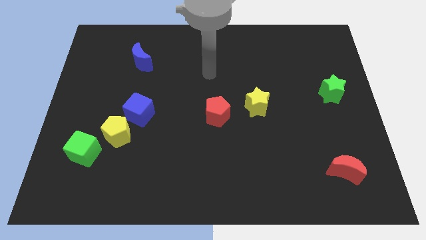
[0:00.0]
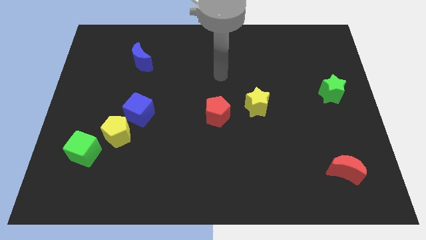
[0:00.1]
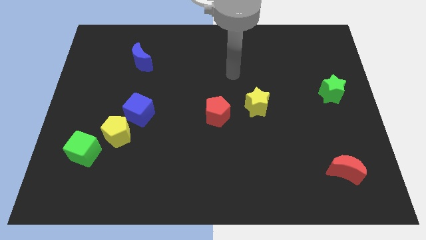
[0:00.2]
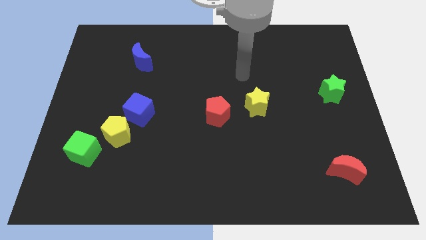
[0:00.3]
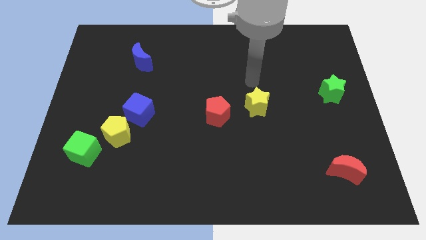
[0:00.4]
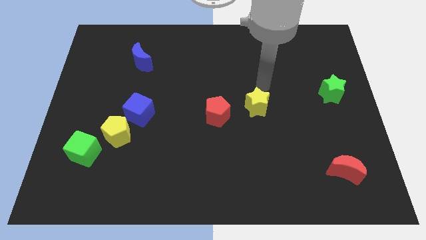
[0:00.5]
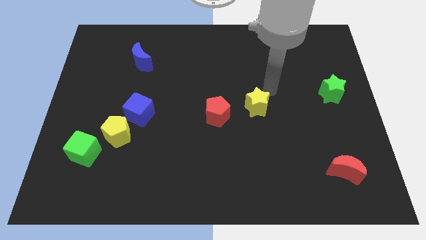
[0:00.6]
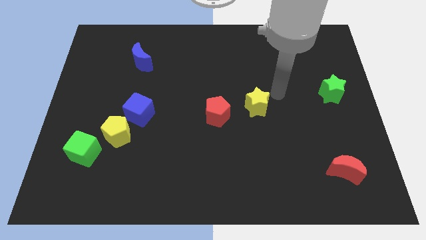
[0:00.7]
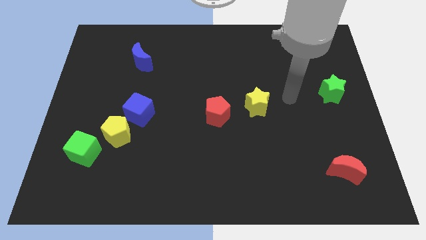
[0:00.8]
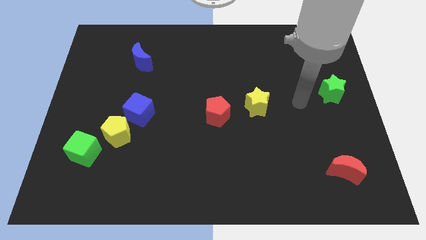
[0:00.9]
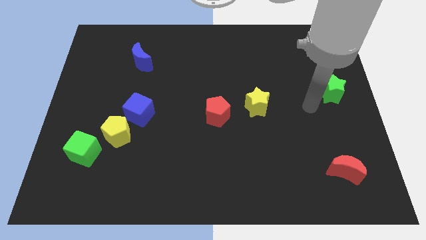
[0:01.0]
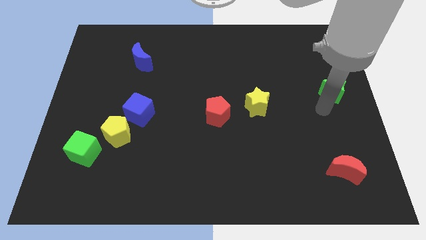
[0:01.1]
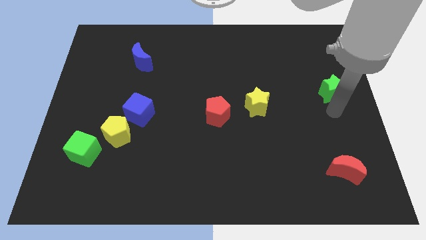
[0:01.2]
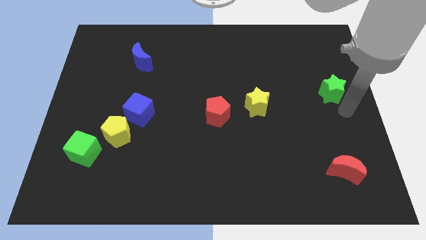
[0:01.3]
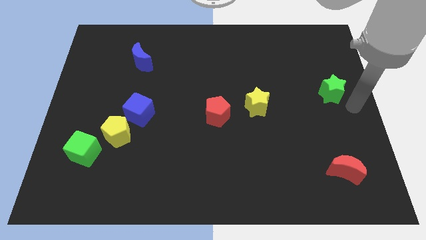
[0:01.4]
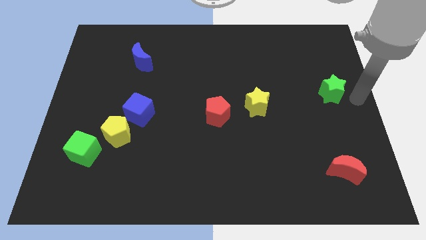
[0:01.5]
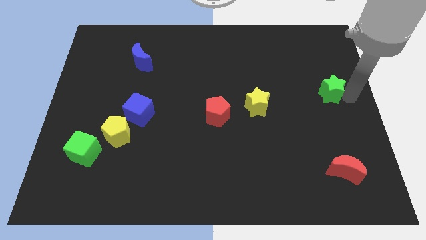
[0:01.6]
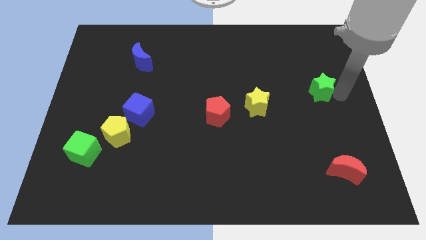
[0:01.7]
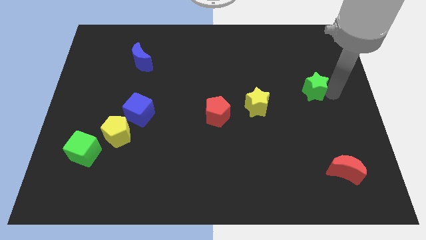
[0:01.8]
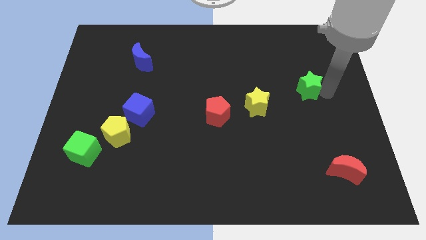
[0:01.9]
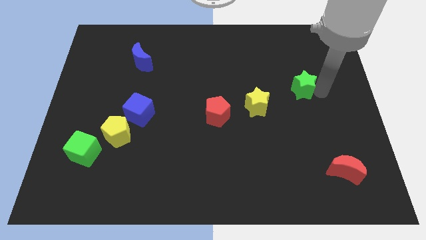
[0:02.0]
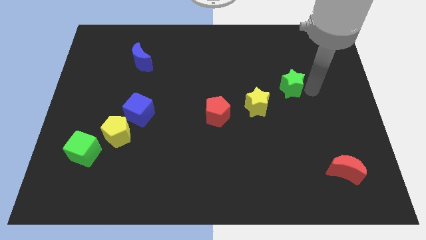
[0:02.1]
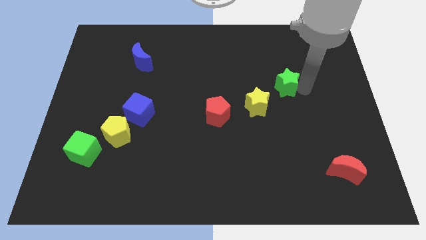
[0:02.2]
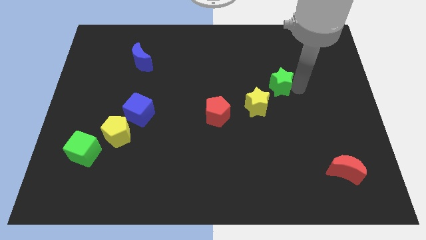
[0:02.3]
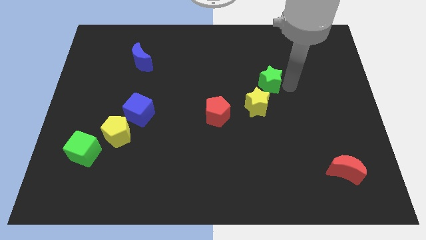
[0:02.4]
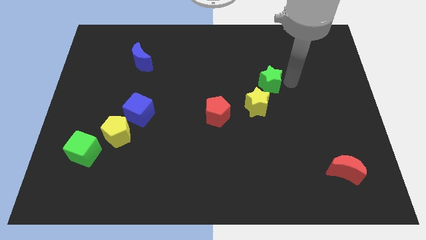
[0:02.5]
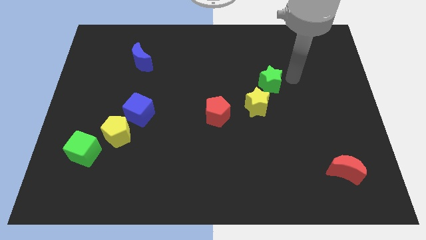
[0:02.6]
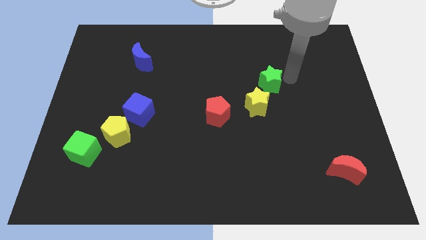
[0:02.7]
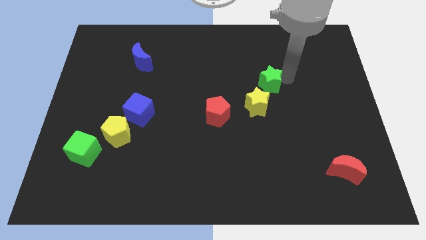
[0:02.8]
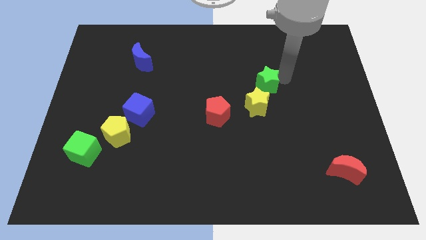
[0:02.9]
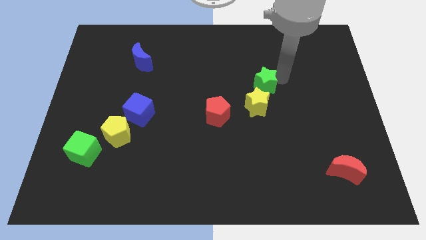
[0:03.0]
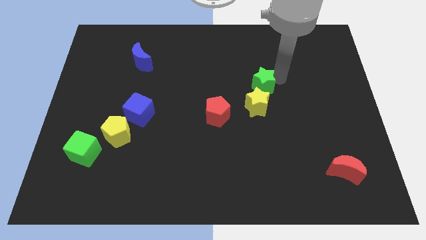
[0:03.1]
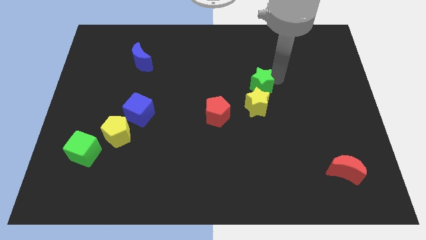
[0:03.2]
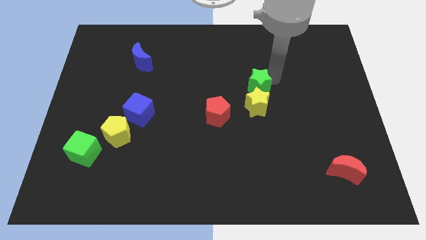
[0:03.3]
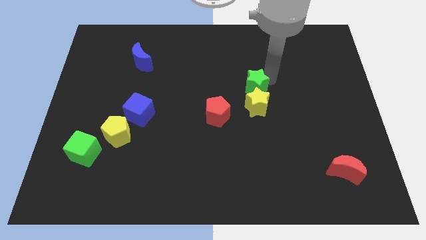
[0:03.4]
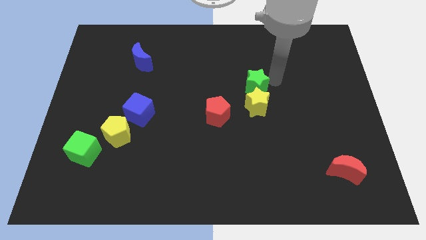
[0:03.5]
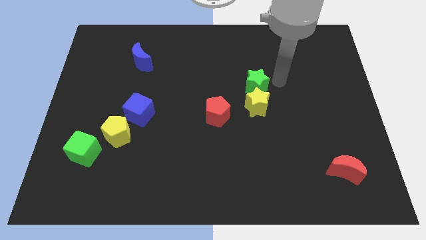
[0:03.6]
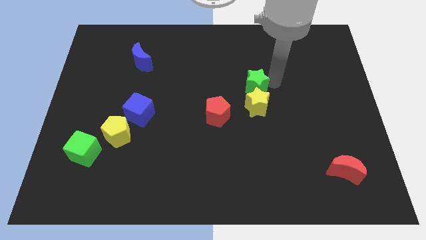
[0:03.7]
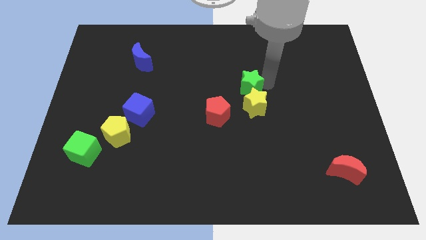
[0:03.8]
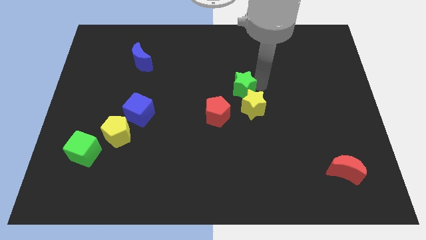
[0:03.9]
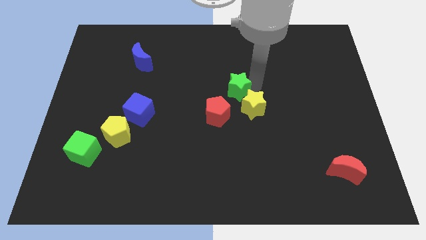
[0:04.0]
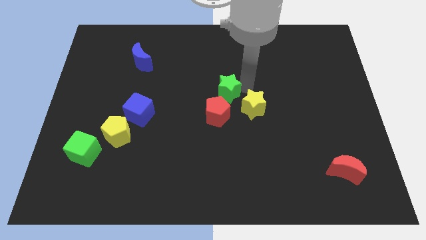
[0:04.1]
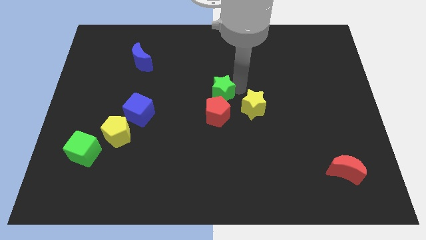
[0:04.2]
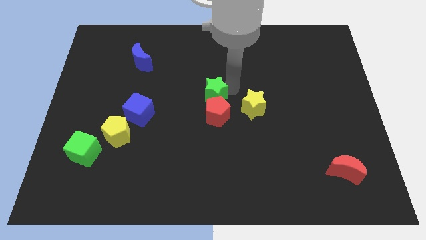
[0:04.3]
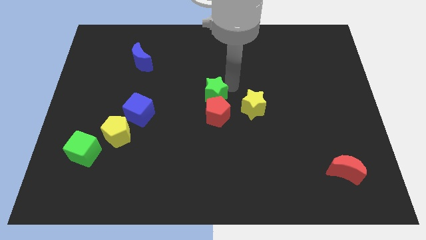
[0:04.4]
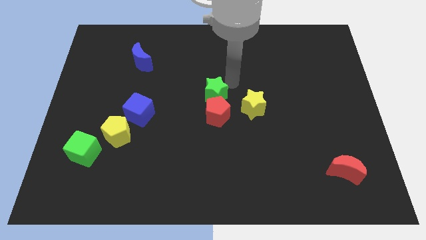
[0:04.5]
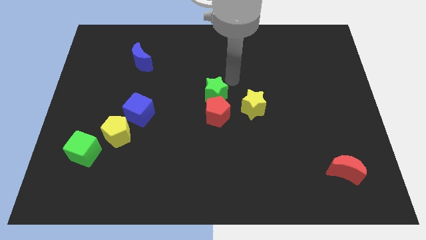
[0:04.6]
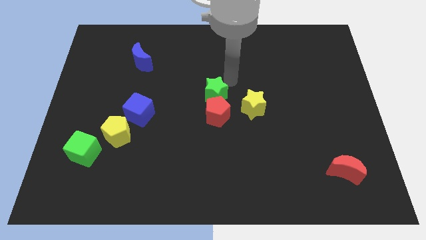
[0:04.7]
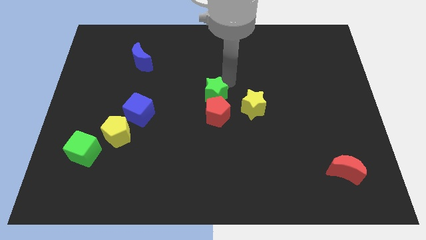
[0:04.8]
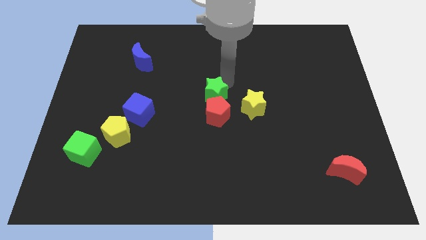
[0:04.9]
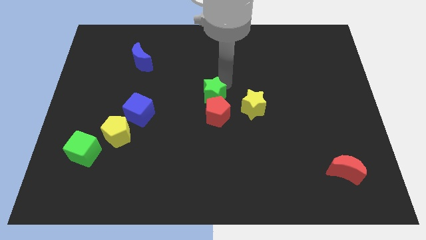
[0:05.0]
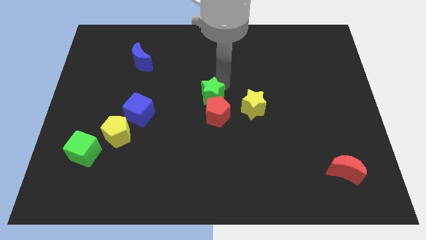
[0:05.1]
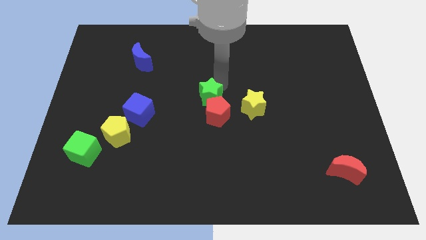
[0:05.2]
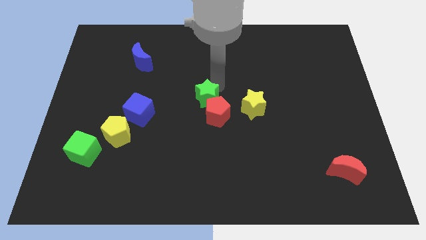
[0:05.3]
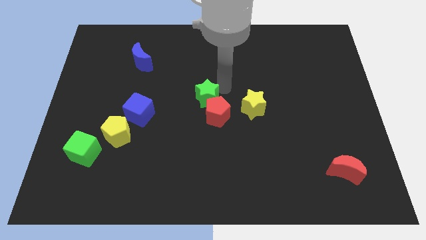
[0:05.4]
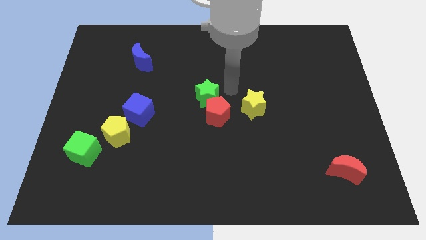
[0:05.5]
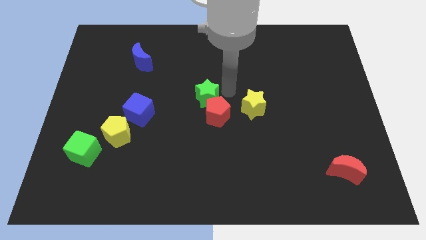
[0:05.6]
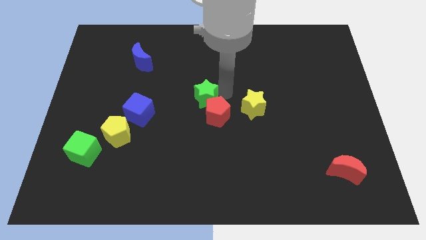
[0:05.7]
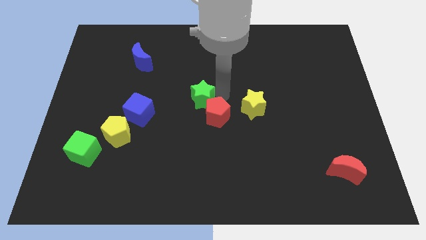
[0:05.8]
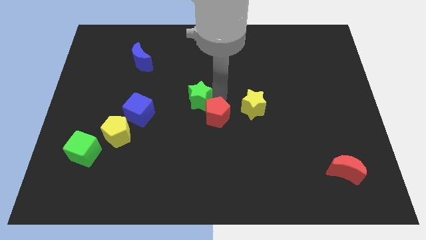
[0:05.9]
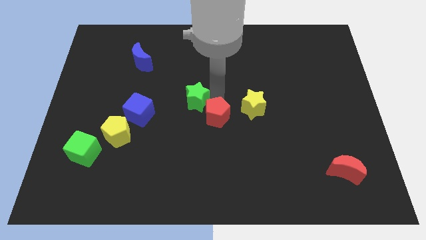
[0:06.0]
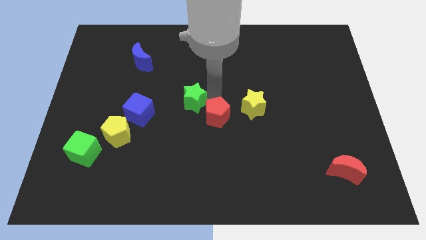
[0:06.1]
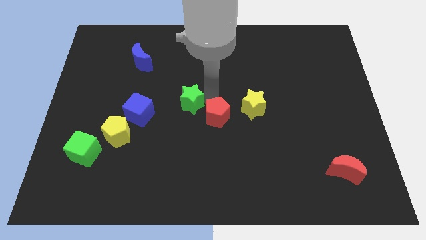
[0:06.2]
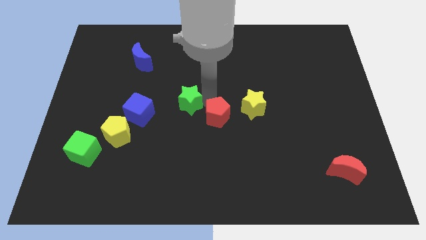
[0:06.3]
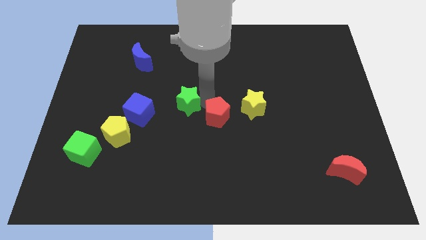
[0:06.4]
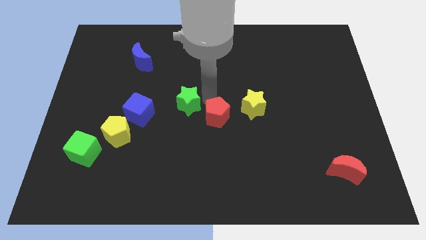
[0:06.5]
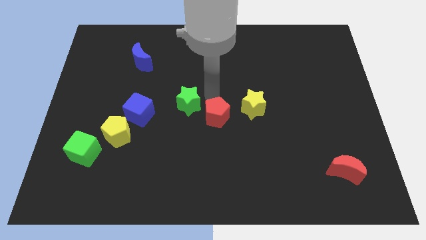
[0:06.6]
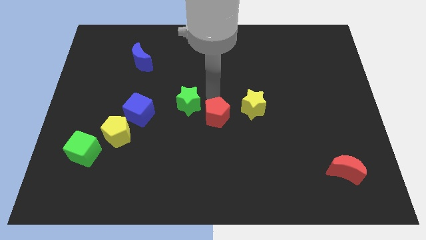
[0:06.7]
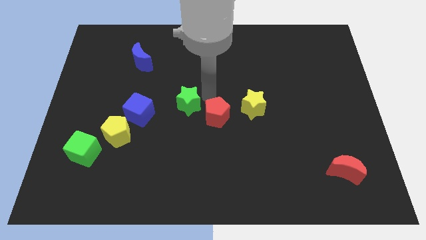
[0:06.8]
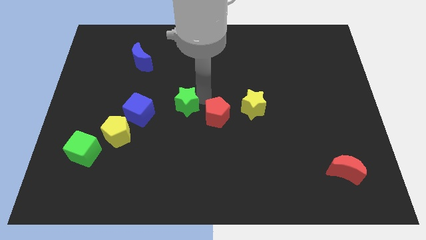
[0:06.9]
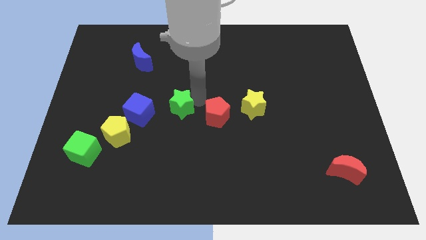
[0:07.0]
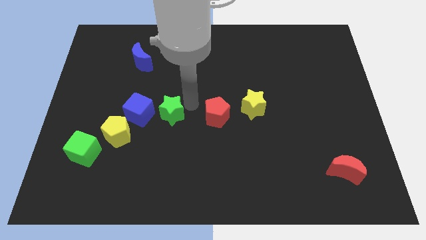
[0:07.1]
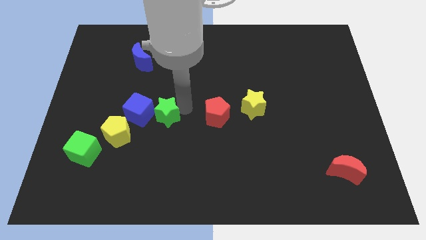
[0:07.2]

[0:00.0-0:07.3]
put the green star towards the blue cube

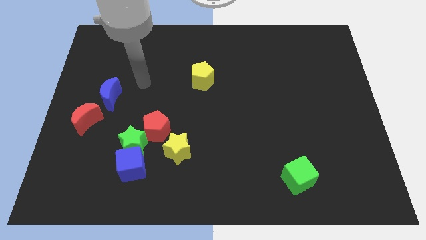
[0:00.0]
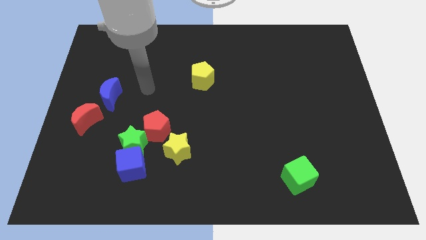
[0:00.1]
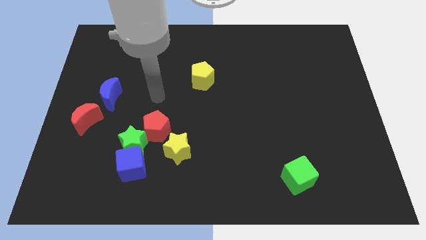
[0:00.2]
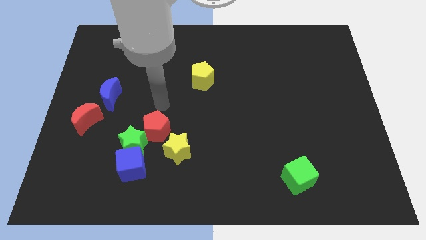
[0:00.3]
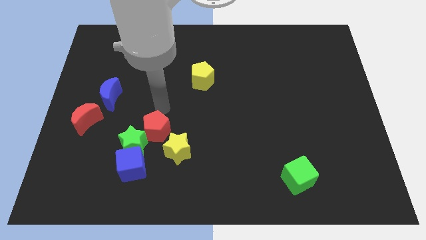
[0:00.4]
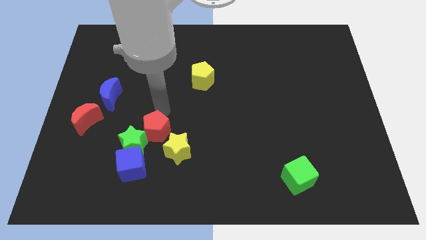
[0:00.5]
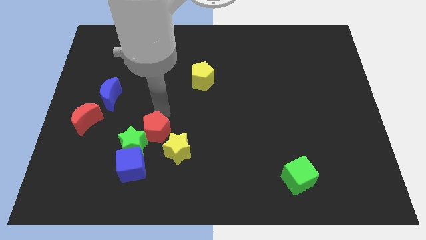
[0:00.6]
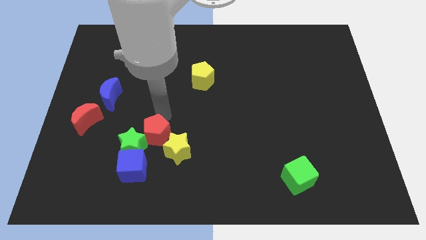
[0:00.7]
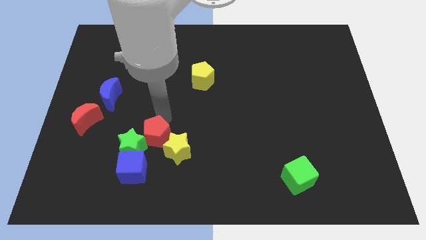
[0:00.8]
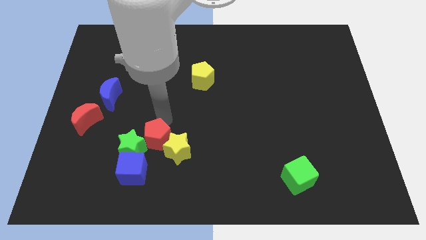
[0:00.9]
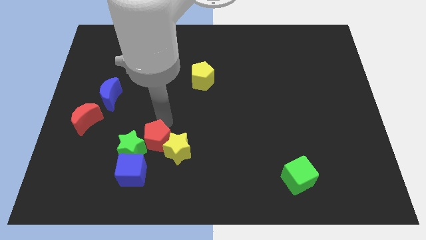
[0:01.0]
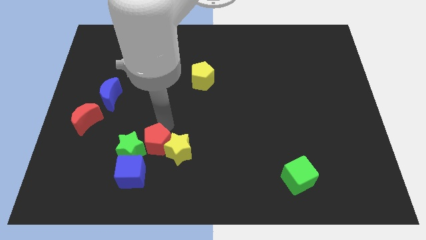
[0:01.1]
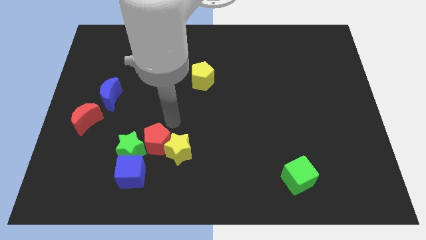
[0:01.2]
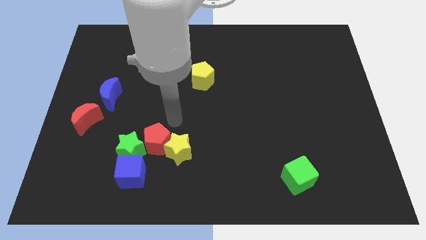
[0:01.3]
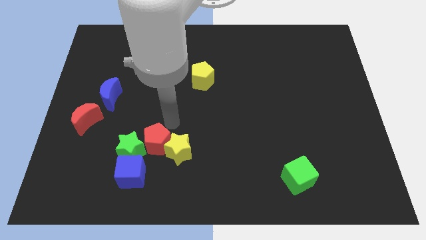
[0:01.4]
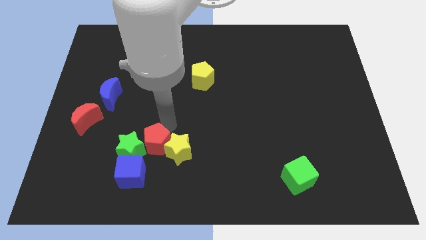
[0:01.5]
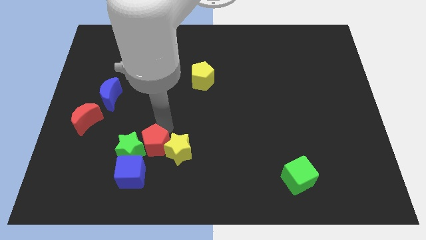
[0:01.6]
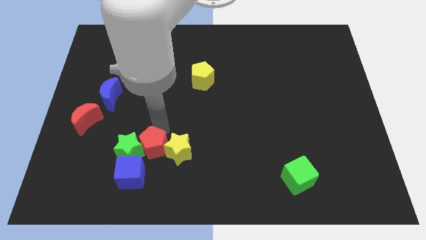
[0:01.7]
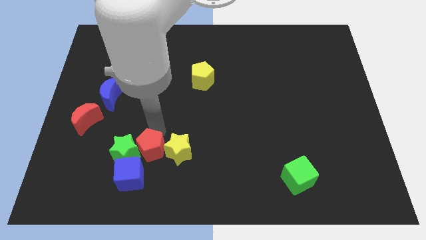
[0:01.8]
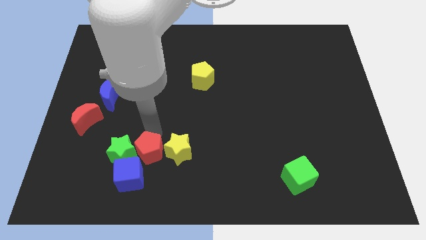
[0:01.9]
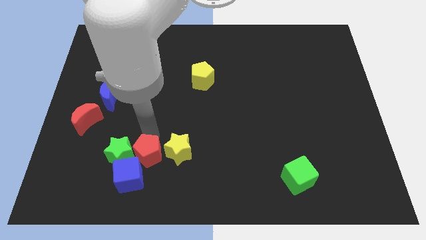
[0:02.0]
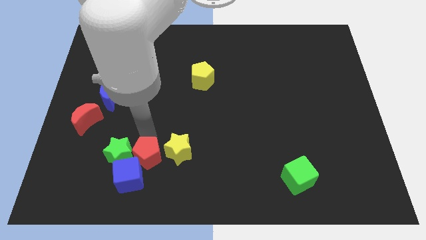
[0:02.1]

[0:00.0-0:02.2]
slide the red pentagon towards the blue cube
